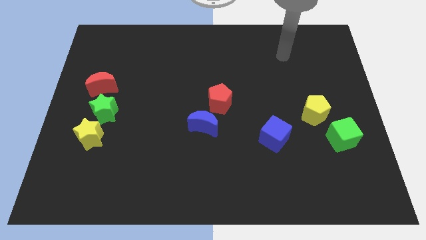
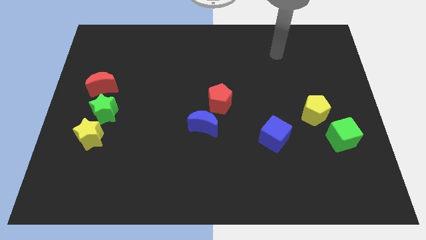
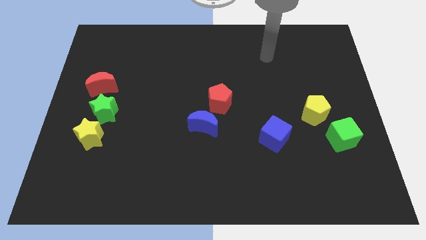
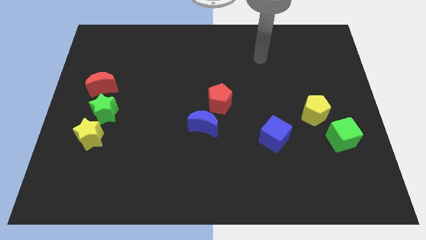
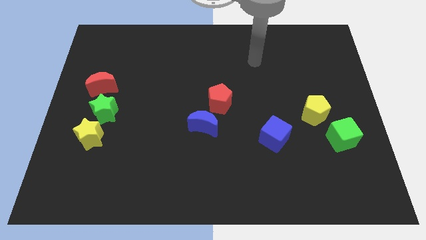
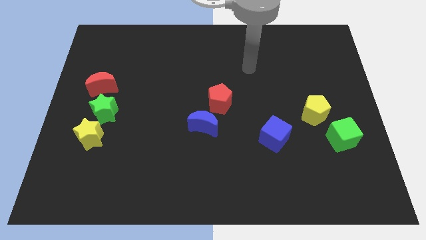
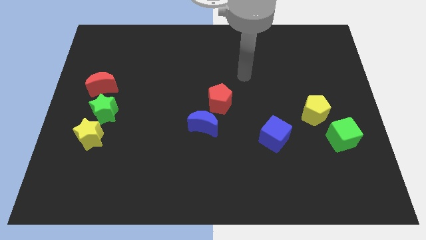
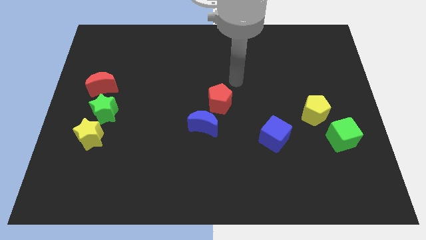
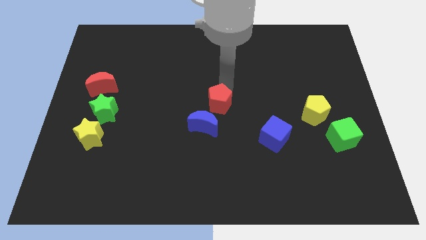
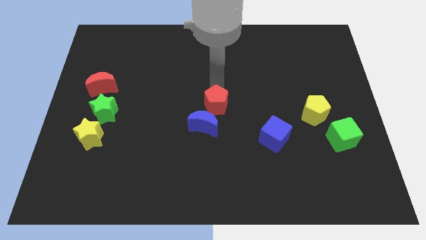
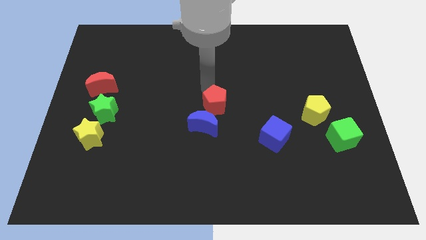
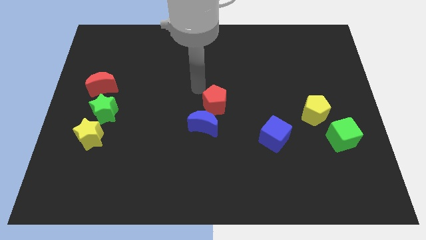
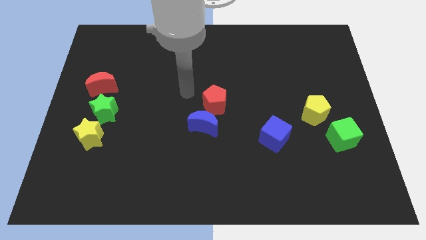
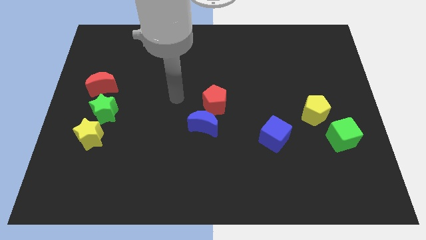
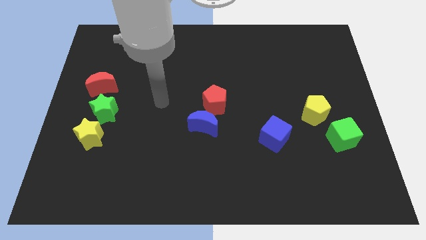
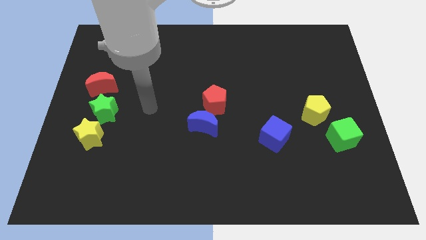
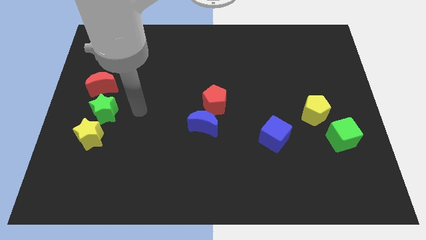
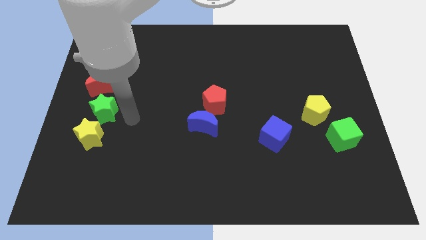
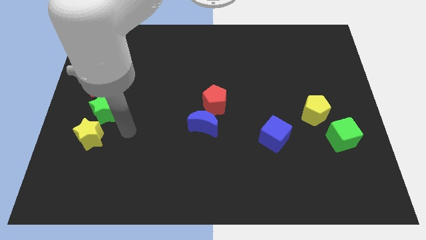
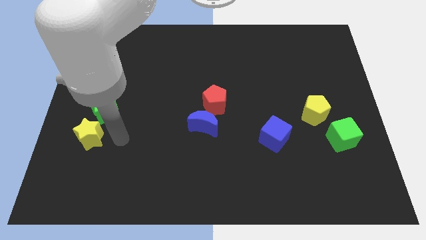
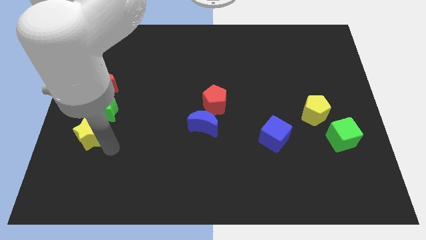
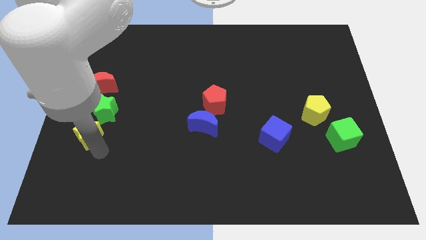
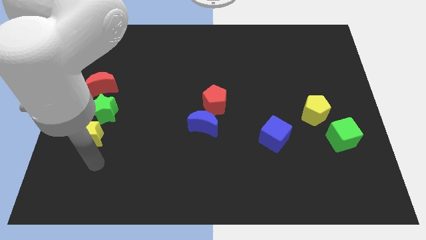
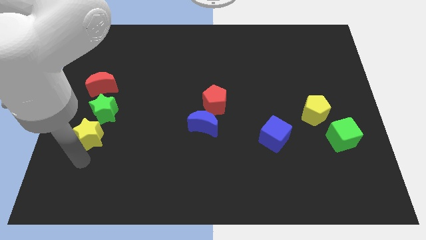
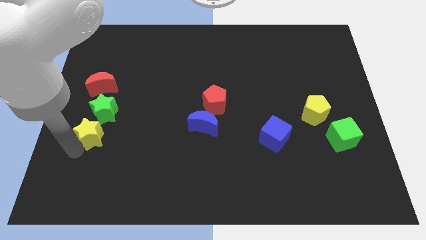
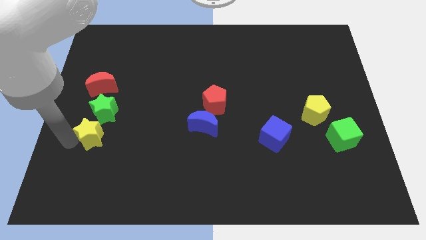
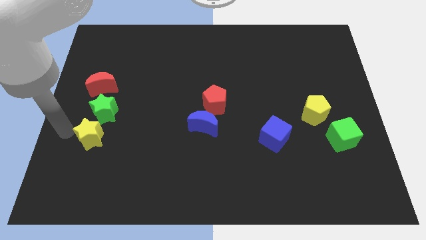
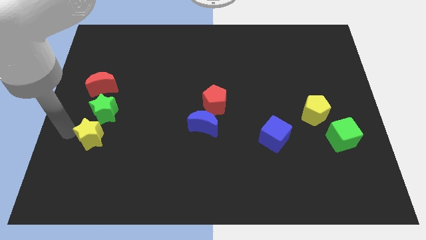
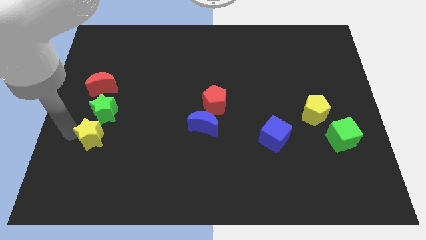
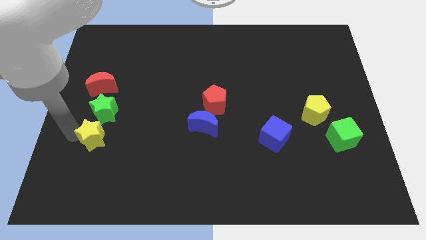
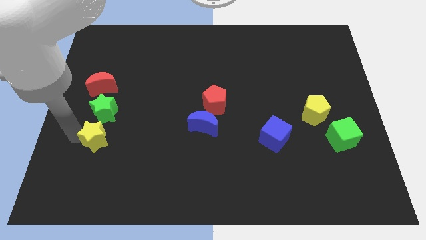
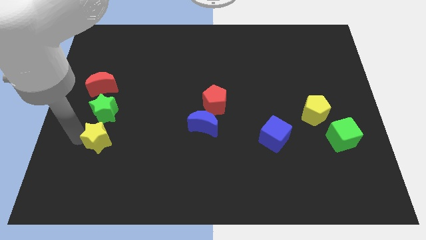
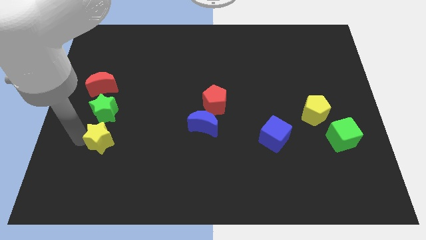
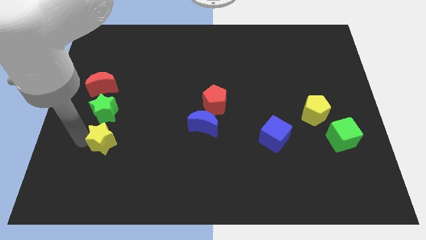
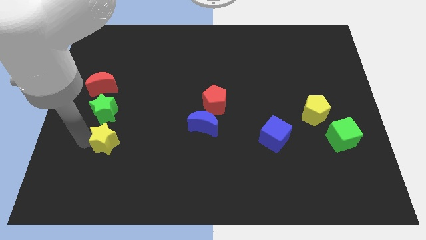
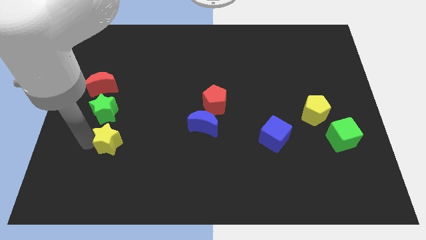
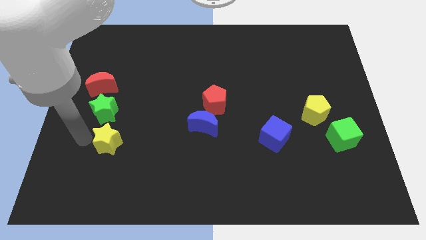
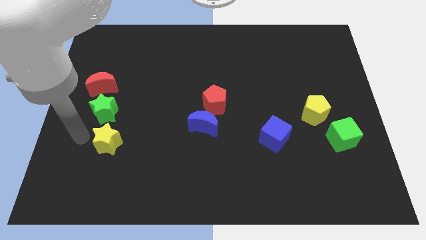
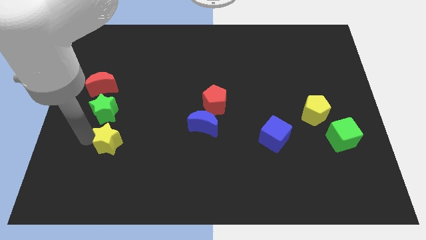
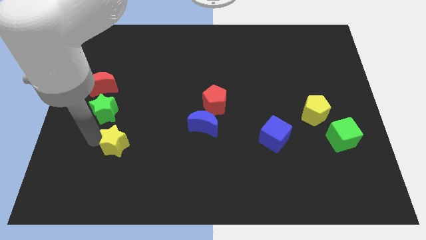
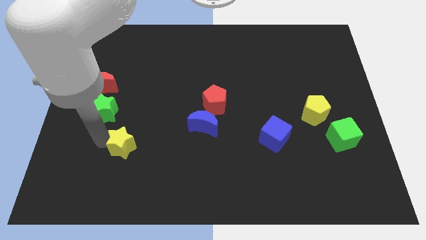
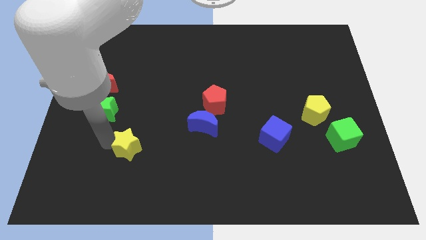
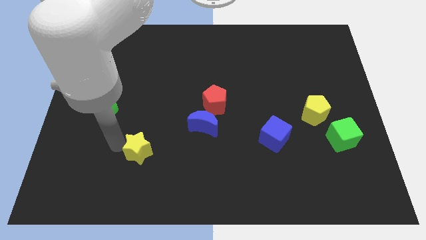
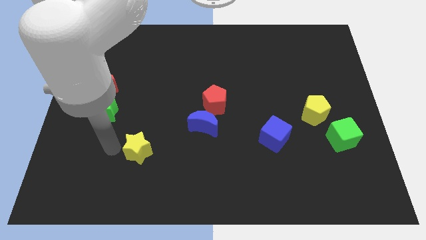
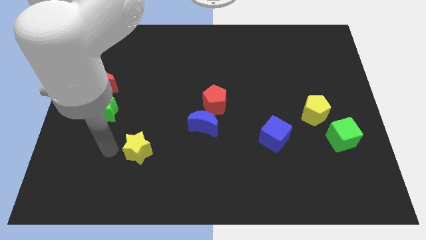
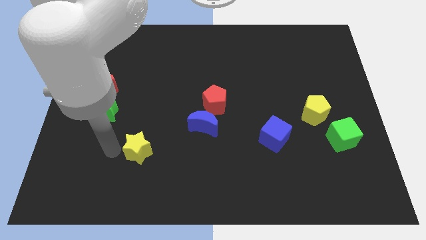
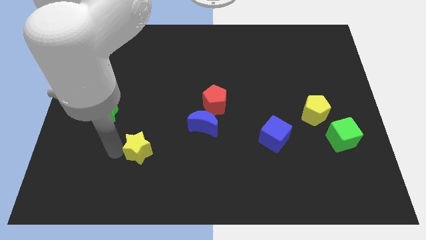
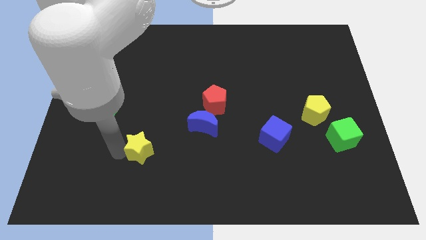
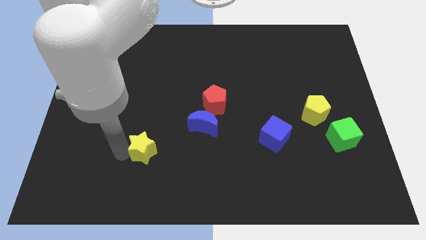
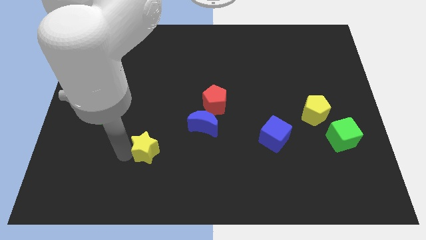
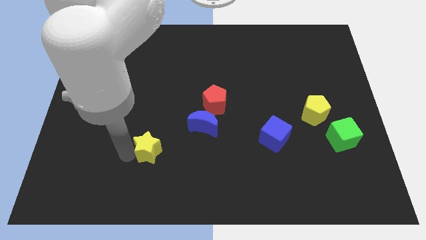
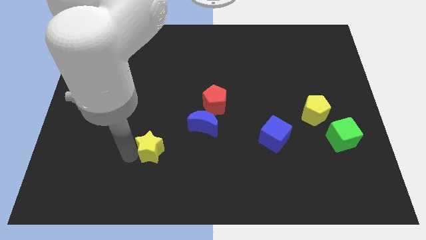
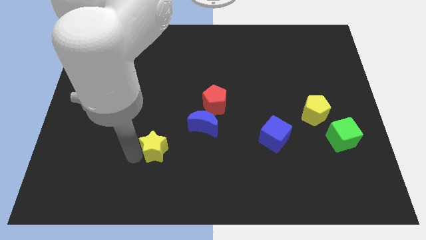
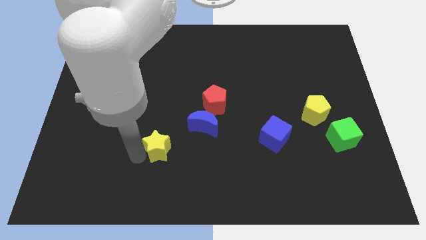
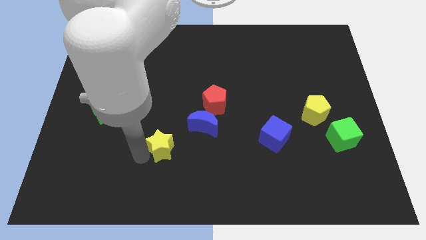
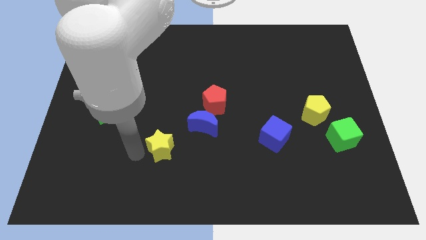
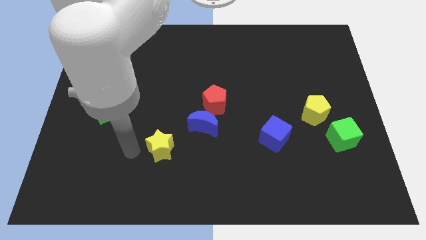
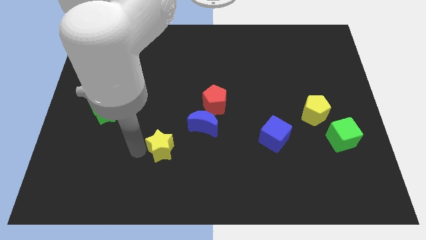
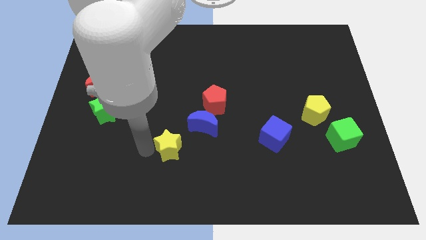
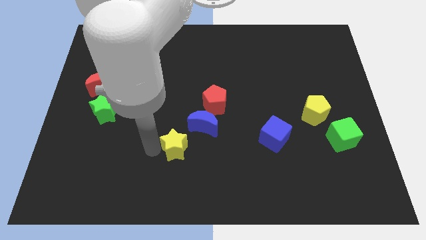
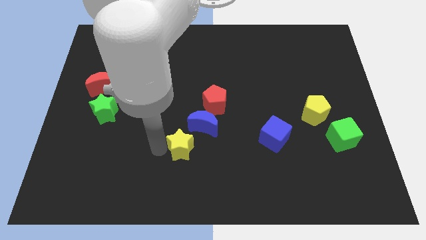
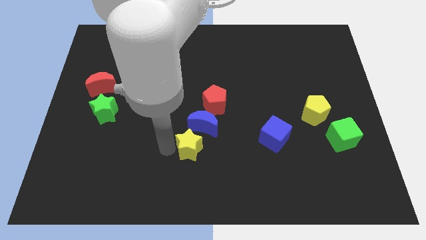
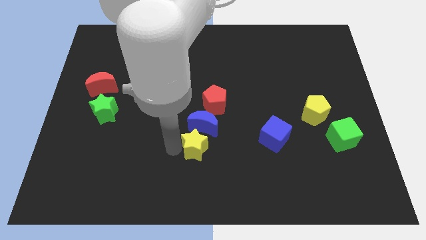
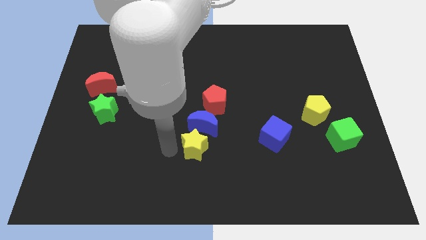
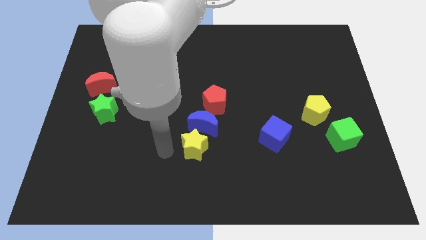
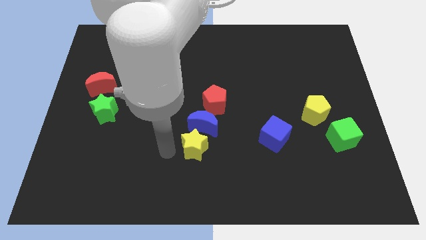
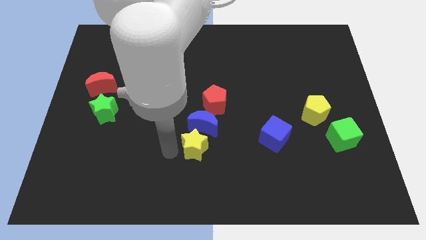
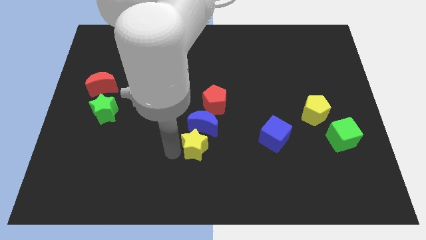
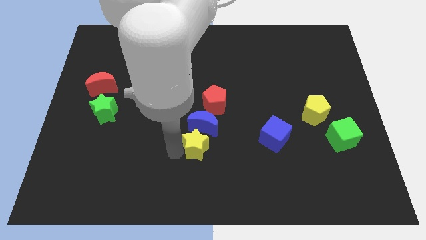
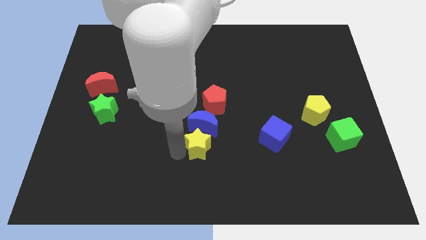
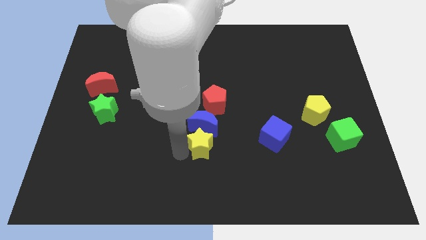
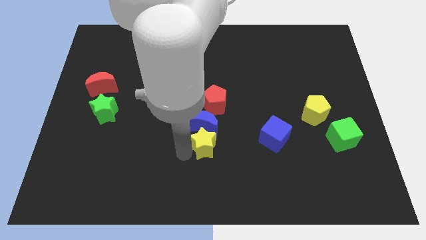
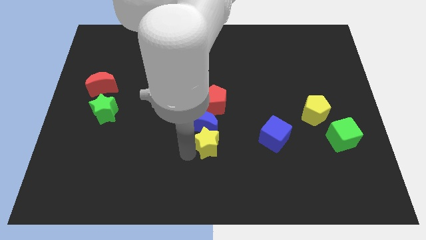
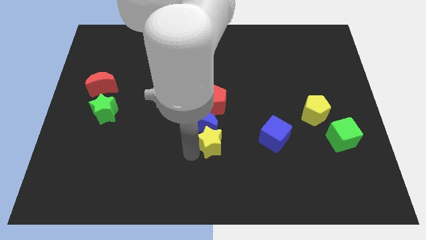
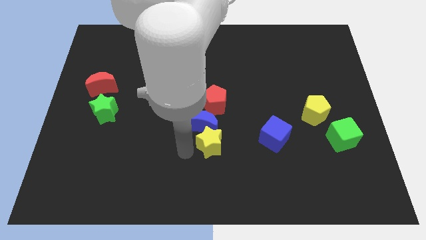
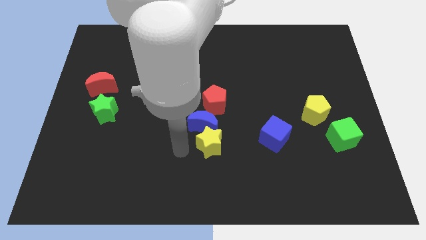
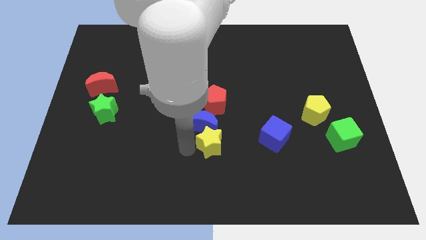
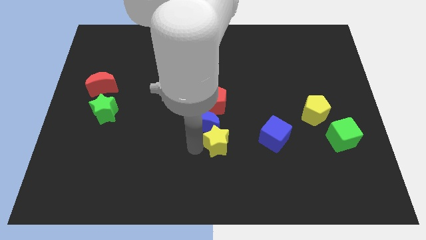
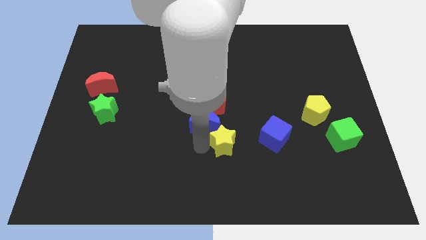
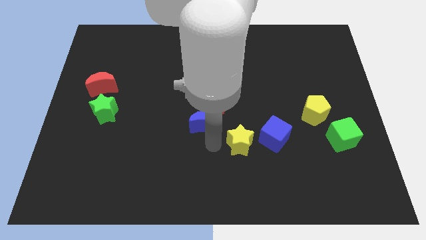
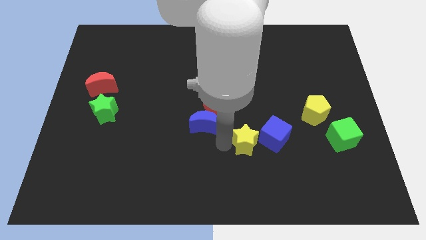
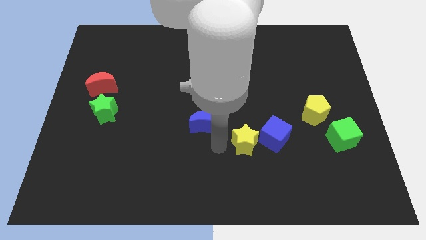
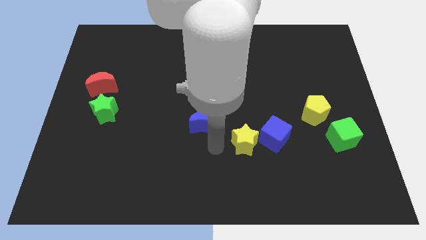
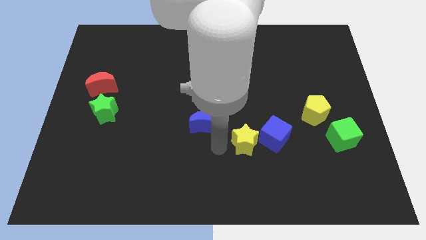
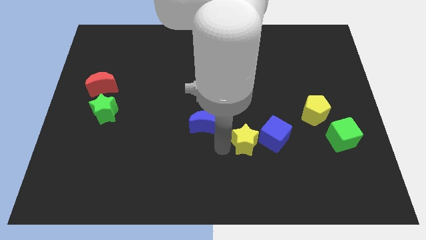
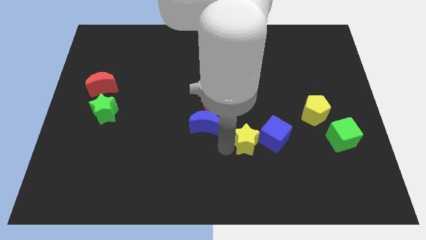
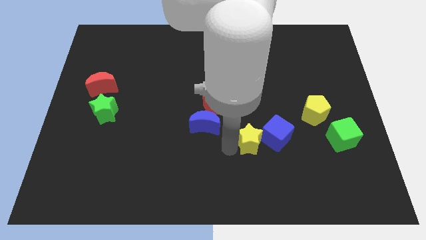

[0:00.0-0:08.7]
push the yellow star next to the blue cube
